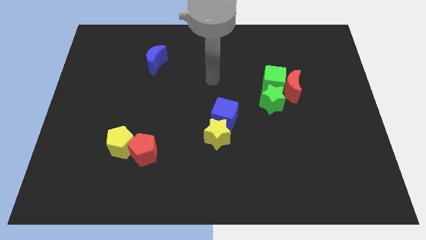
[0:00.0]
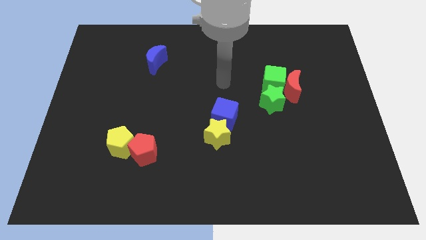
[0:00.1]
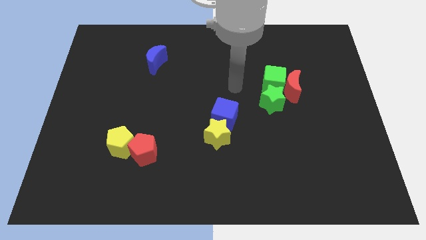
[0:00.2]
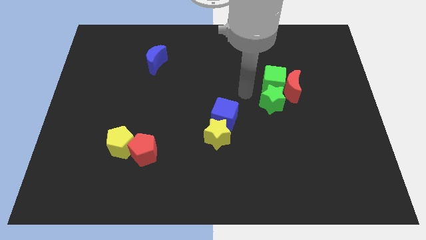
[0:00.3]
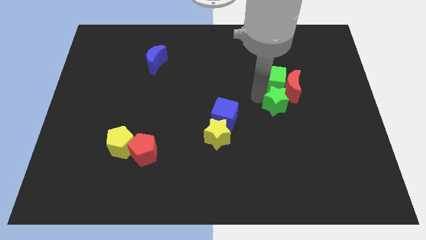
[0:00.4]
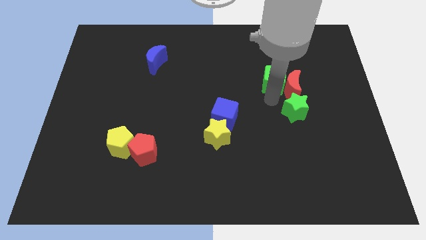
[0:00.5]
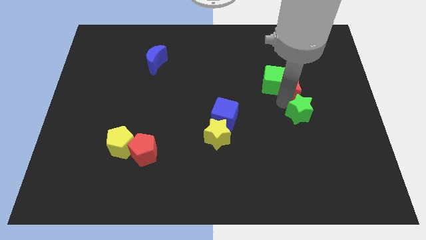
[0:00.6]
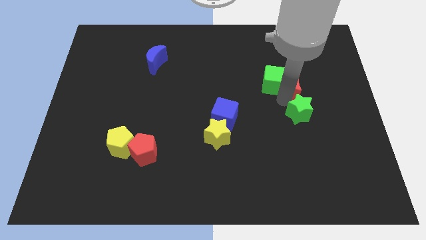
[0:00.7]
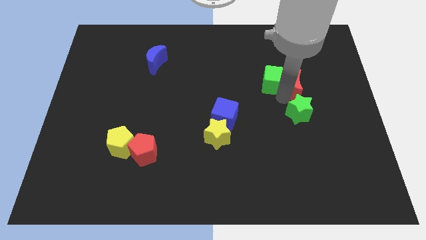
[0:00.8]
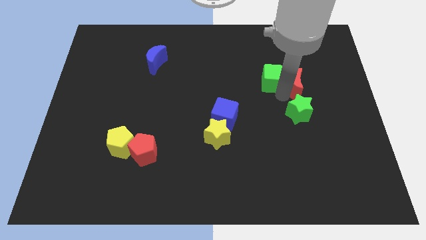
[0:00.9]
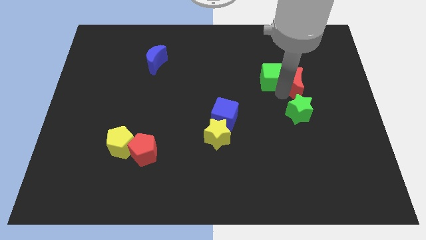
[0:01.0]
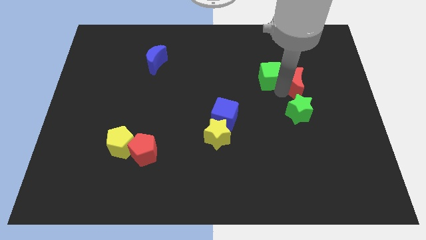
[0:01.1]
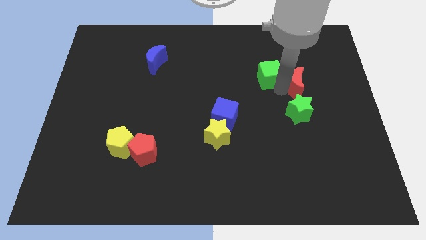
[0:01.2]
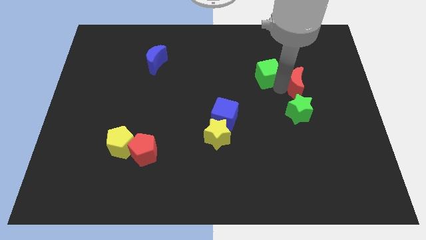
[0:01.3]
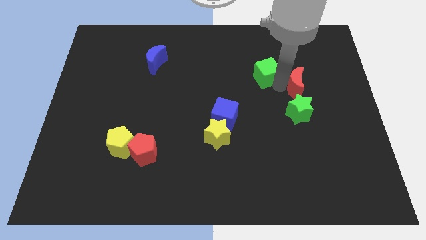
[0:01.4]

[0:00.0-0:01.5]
pull the green cube apart from the red moon and green star

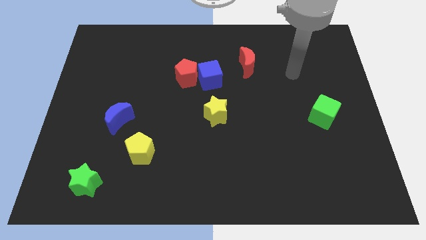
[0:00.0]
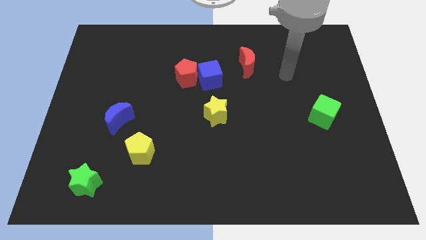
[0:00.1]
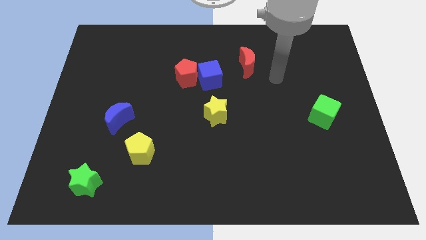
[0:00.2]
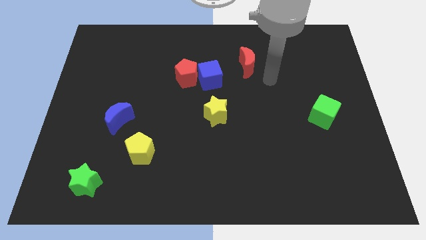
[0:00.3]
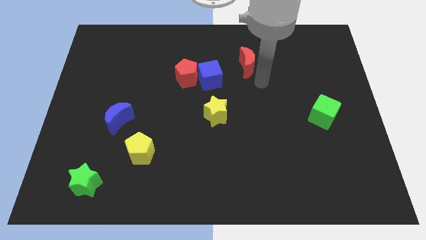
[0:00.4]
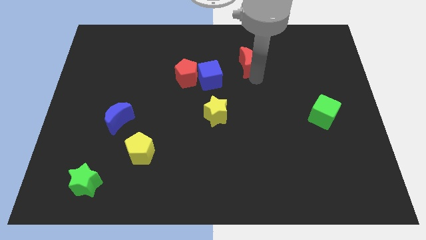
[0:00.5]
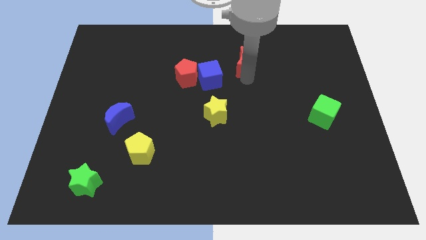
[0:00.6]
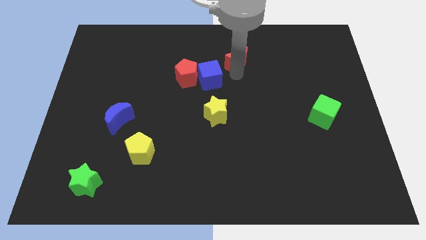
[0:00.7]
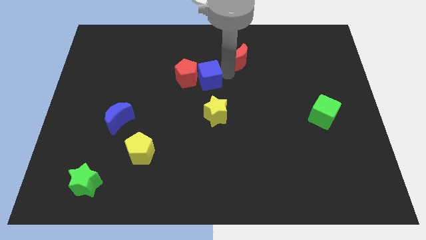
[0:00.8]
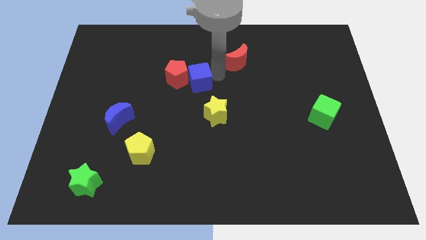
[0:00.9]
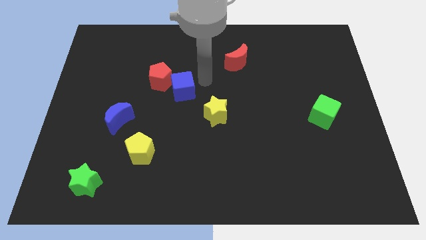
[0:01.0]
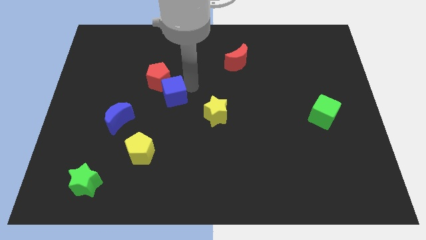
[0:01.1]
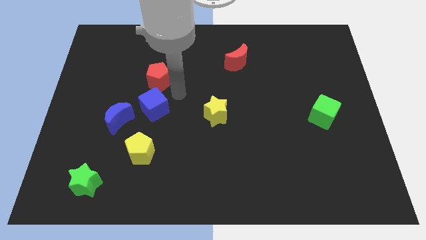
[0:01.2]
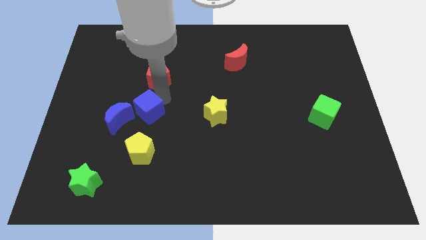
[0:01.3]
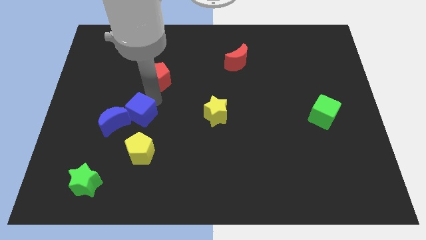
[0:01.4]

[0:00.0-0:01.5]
move the red pentagon away from the blue cube

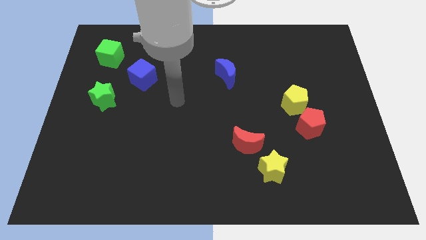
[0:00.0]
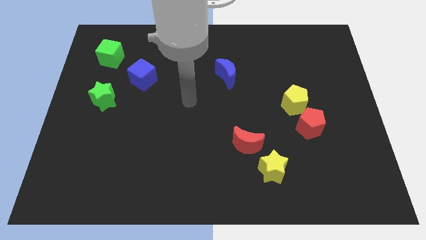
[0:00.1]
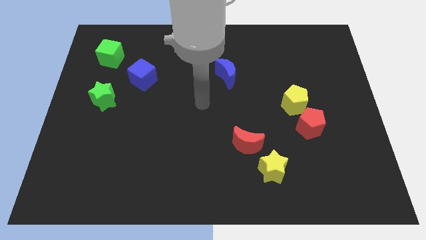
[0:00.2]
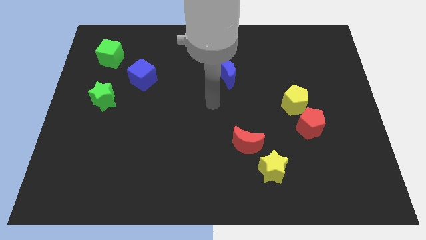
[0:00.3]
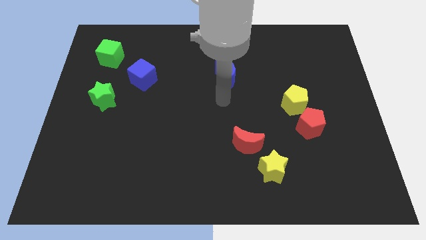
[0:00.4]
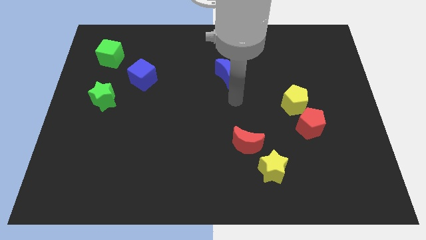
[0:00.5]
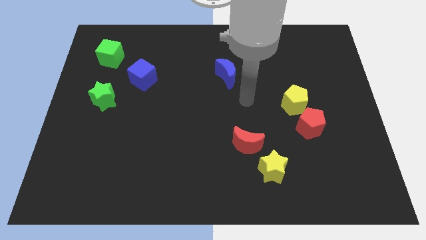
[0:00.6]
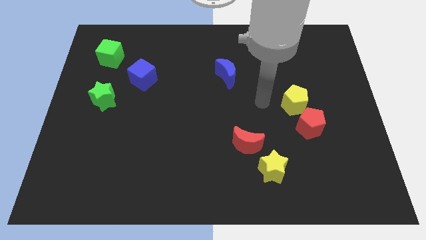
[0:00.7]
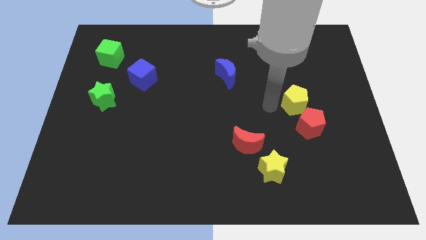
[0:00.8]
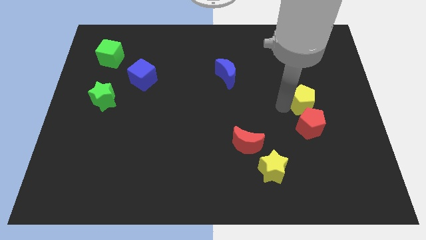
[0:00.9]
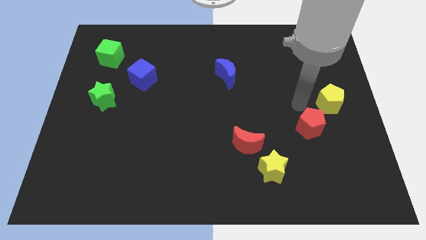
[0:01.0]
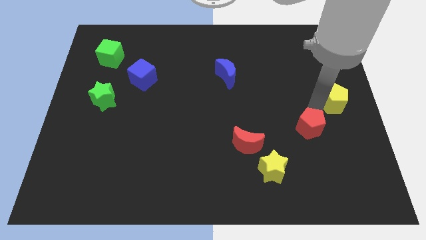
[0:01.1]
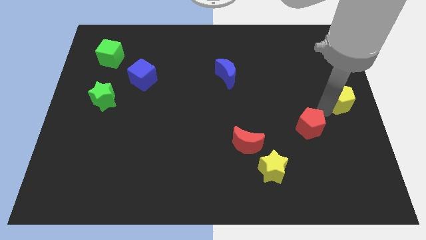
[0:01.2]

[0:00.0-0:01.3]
move the red pentagon away from the yellow pentagon

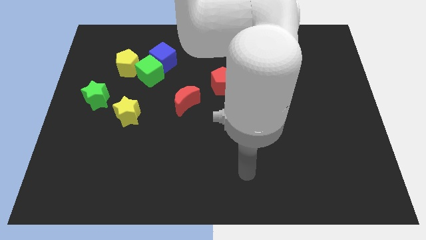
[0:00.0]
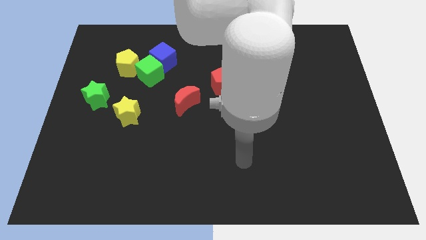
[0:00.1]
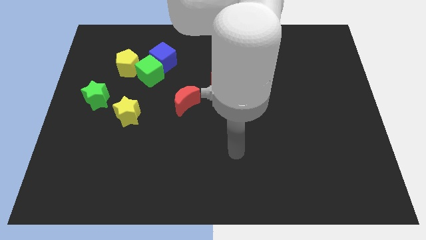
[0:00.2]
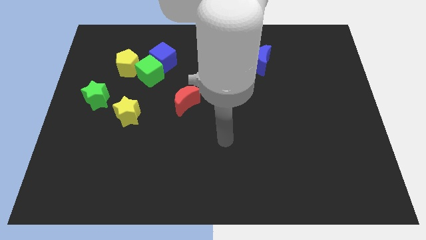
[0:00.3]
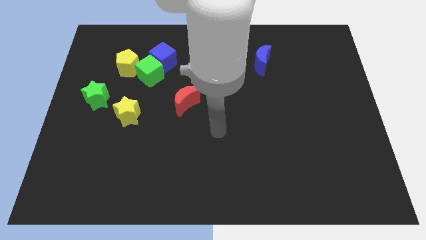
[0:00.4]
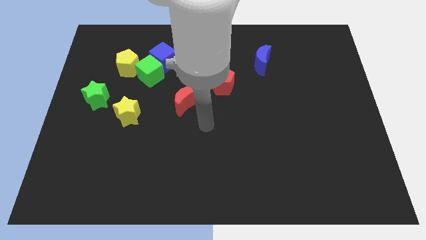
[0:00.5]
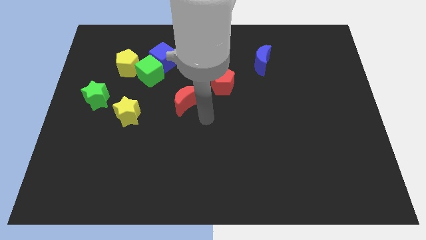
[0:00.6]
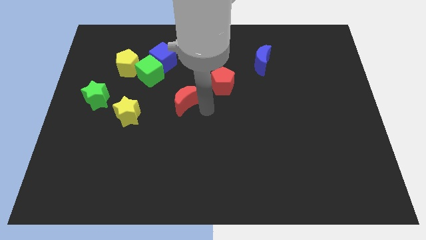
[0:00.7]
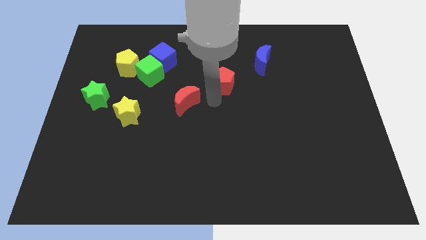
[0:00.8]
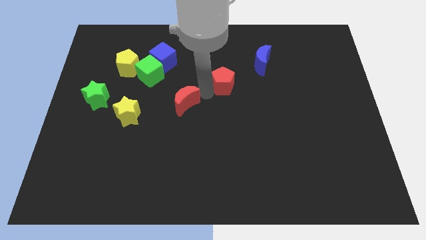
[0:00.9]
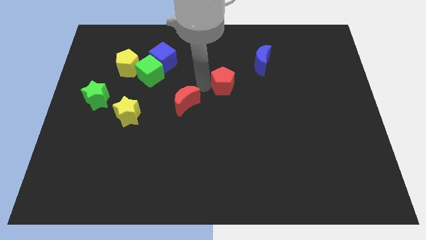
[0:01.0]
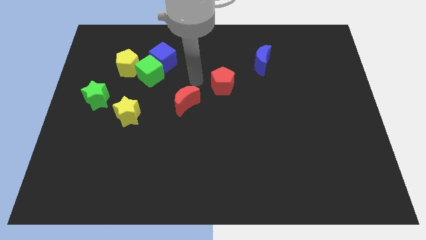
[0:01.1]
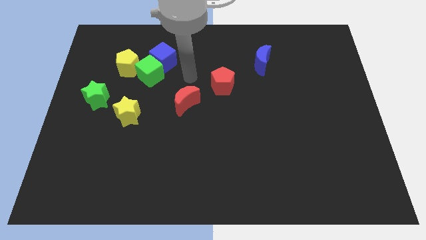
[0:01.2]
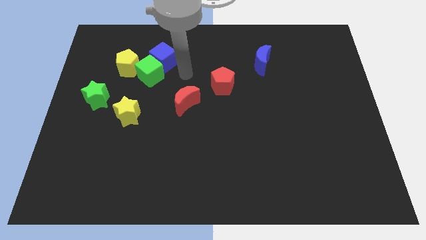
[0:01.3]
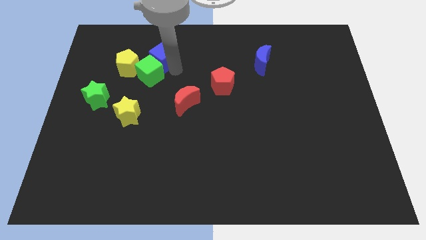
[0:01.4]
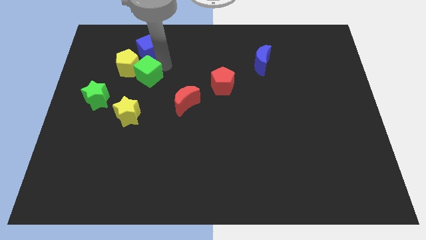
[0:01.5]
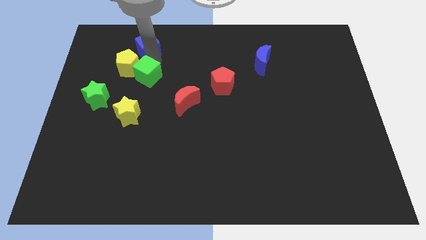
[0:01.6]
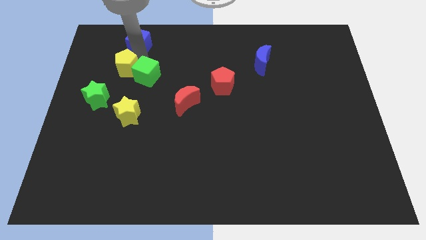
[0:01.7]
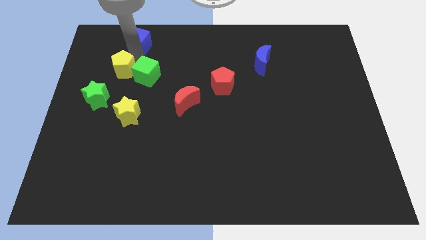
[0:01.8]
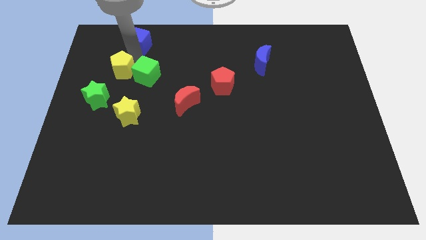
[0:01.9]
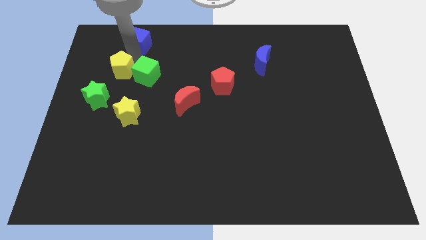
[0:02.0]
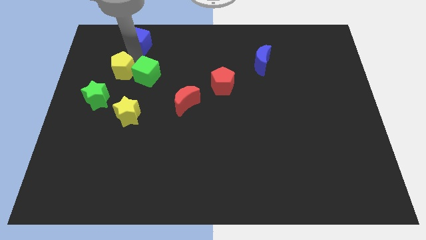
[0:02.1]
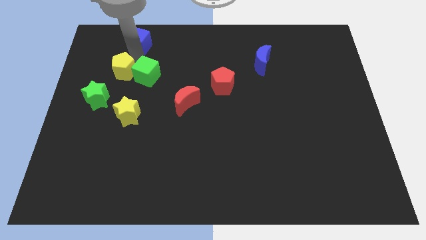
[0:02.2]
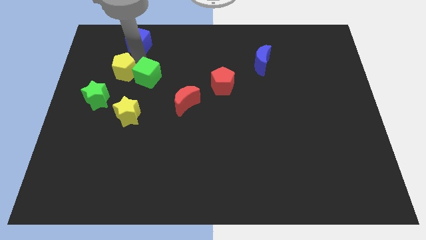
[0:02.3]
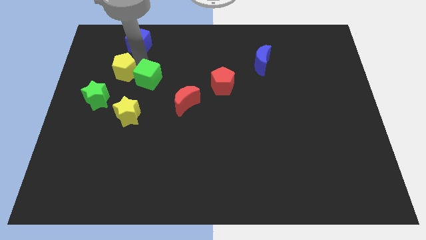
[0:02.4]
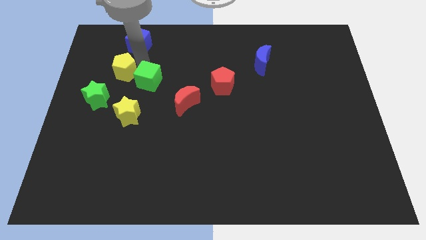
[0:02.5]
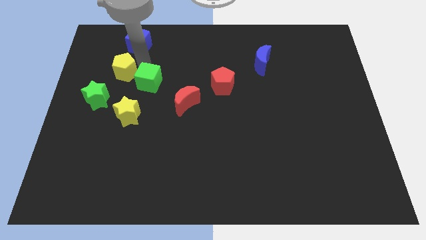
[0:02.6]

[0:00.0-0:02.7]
pull the green cube apart from the blue cube and yellow pentagon

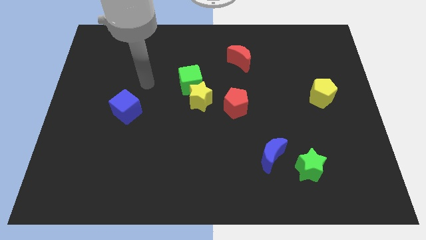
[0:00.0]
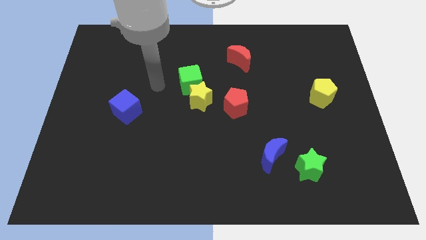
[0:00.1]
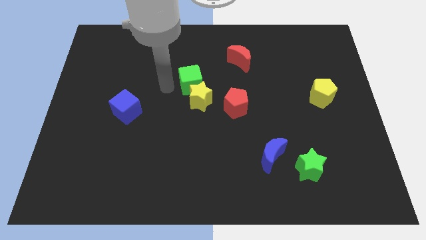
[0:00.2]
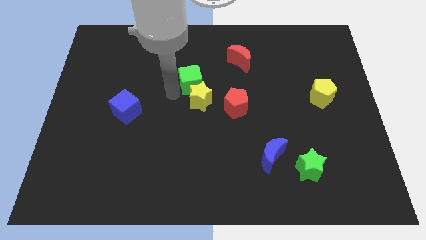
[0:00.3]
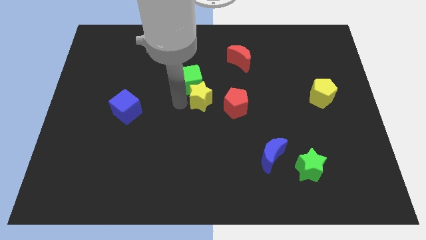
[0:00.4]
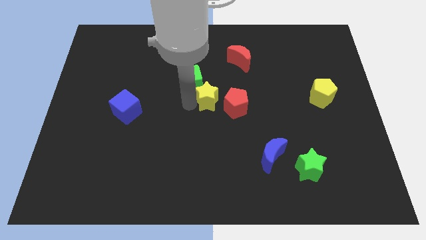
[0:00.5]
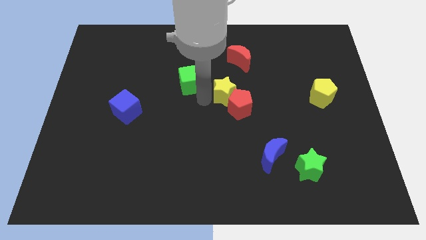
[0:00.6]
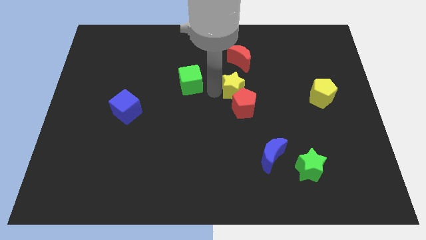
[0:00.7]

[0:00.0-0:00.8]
separate the green cube from the yellow star

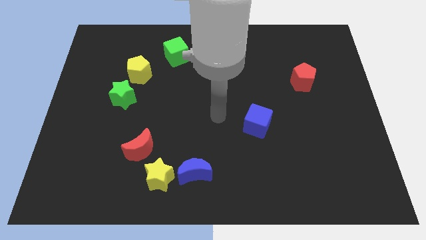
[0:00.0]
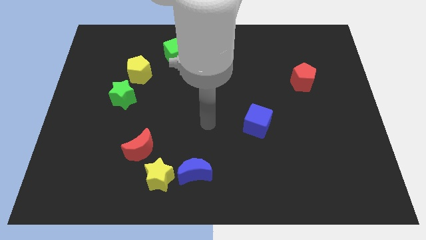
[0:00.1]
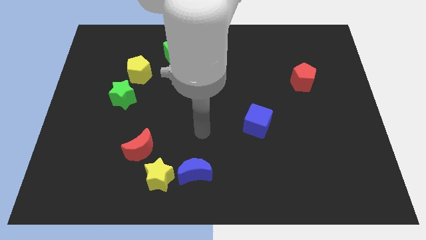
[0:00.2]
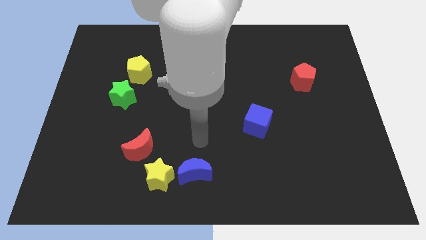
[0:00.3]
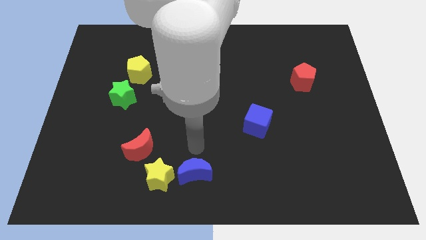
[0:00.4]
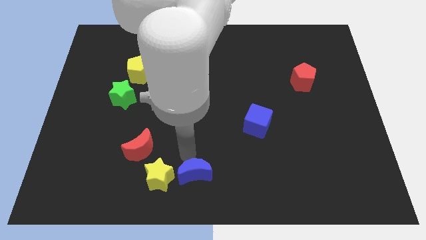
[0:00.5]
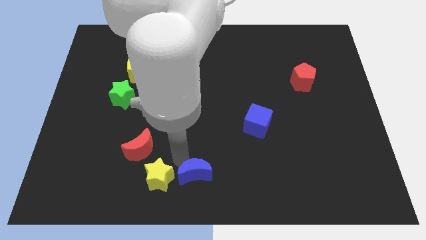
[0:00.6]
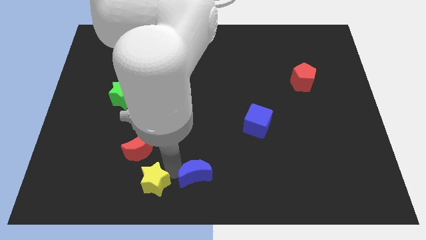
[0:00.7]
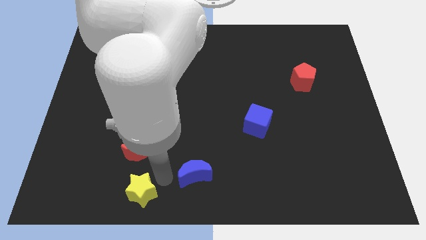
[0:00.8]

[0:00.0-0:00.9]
move the blue moon away from the yellow star

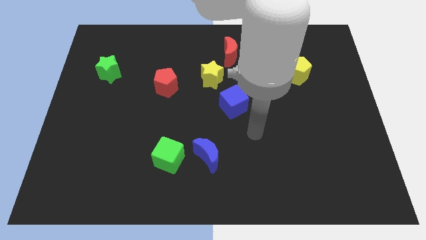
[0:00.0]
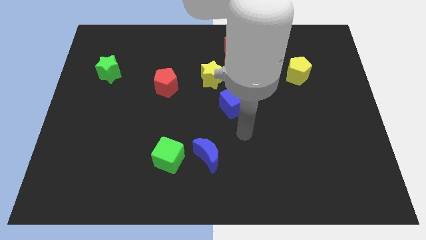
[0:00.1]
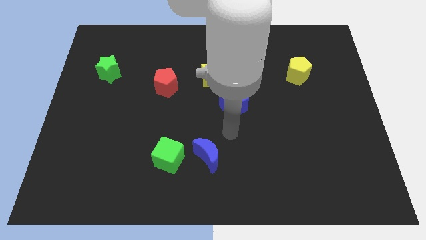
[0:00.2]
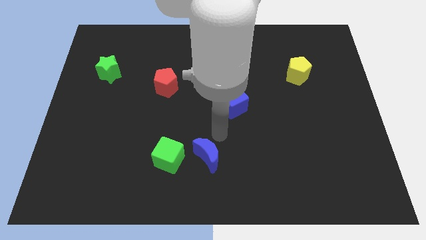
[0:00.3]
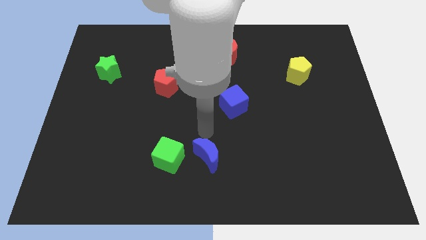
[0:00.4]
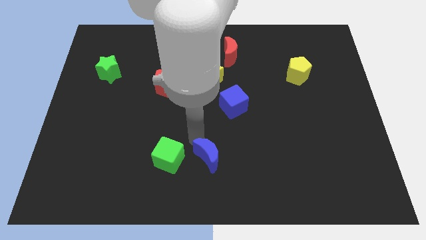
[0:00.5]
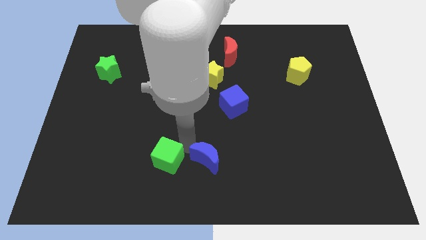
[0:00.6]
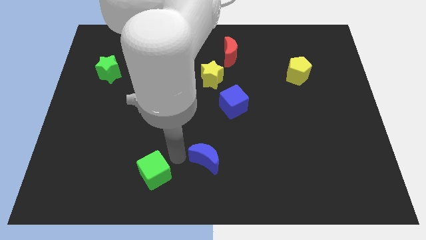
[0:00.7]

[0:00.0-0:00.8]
separate the blue moon from the green cube

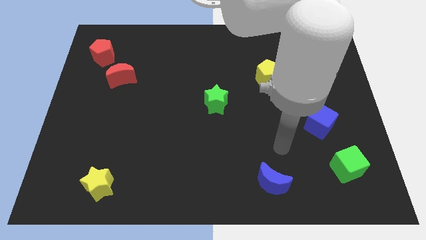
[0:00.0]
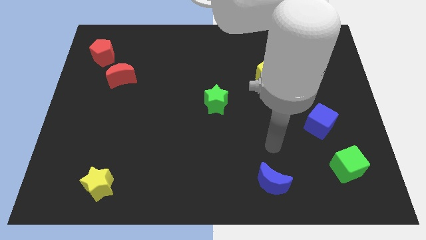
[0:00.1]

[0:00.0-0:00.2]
pull the red moon apart from the red pentagon
